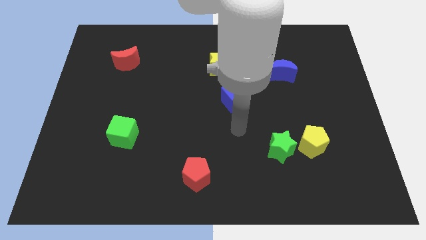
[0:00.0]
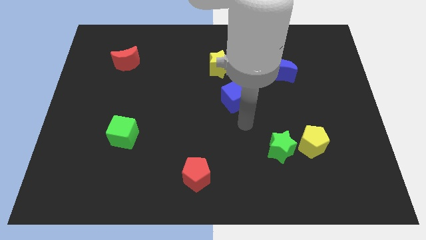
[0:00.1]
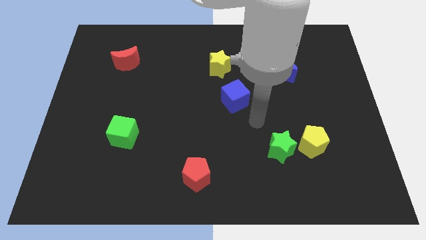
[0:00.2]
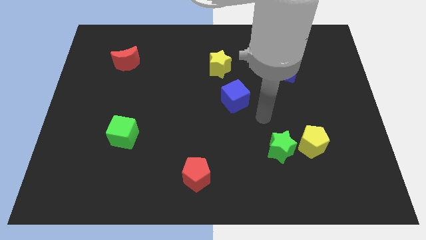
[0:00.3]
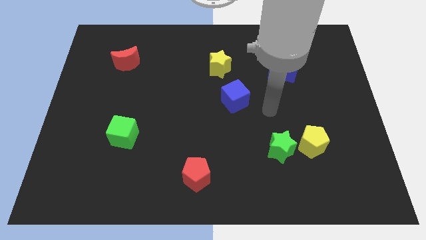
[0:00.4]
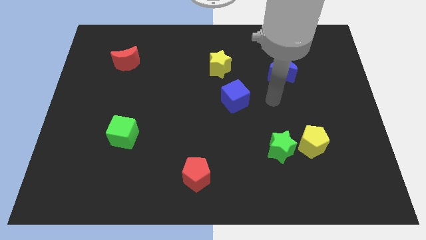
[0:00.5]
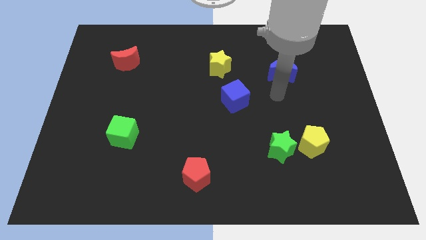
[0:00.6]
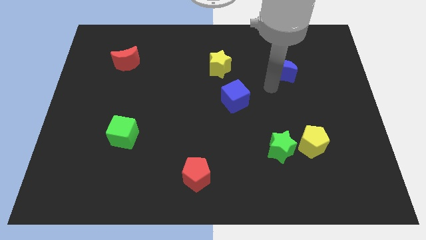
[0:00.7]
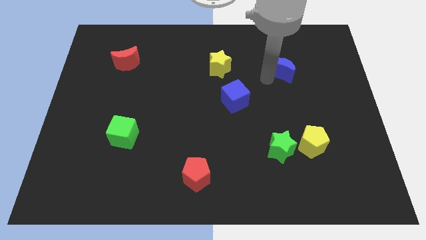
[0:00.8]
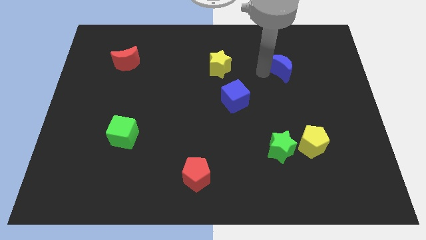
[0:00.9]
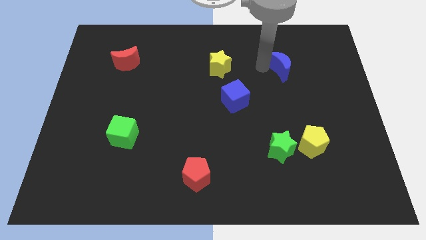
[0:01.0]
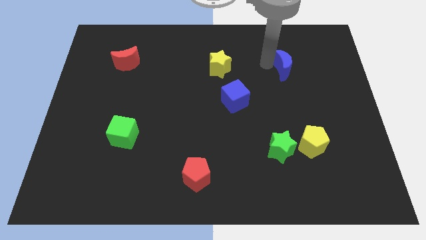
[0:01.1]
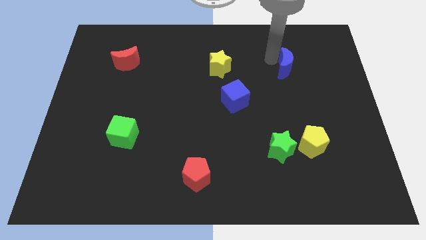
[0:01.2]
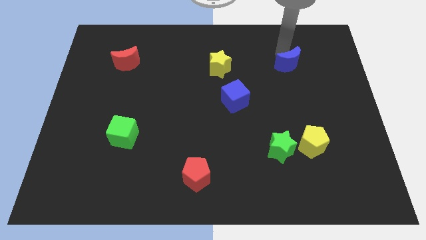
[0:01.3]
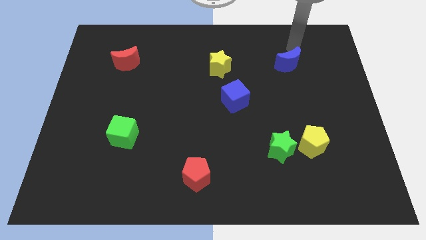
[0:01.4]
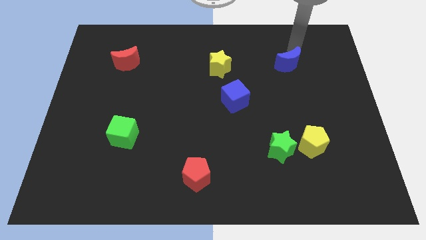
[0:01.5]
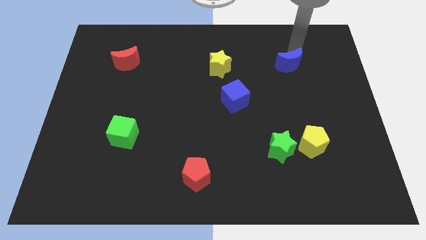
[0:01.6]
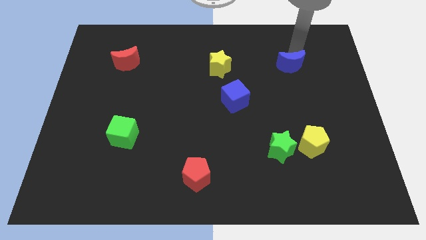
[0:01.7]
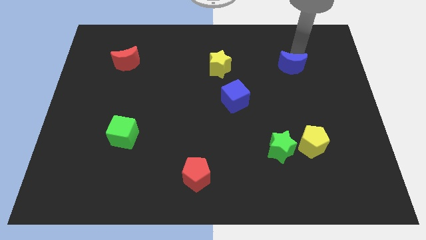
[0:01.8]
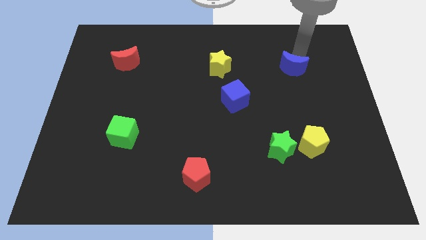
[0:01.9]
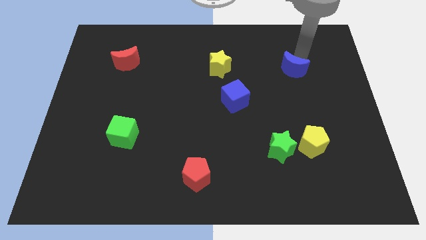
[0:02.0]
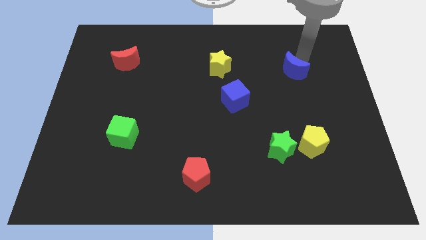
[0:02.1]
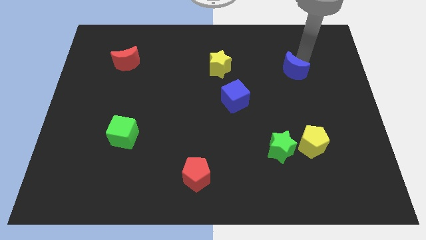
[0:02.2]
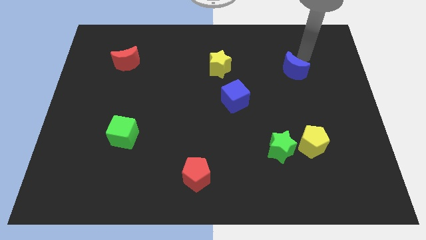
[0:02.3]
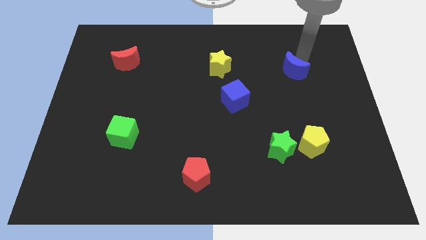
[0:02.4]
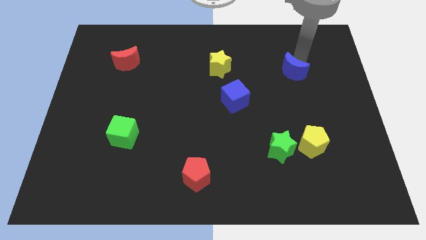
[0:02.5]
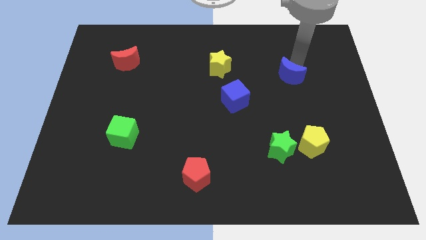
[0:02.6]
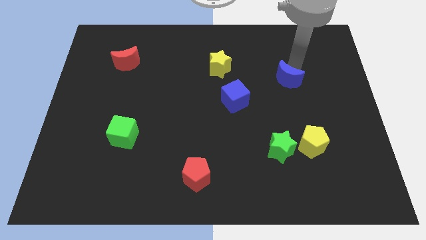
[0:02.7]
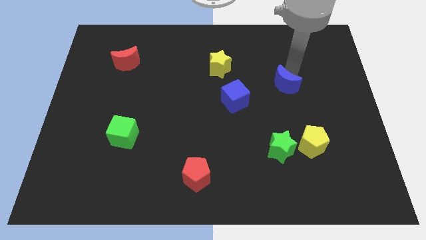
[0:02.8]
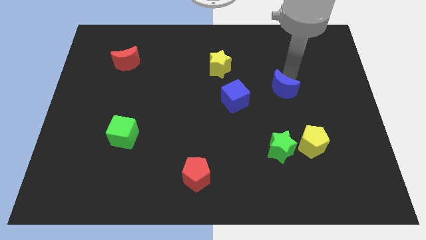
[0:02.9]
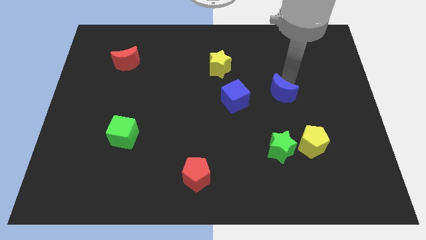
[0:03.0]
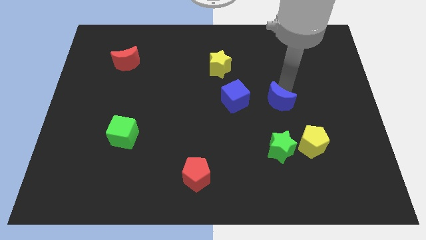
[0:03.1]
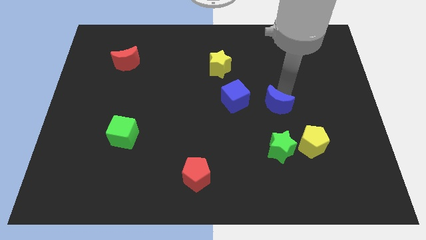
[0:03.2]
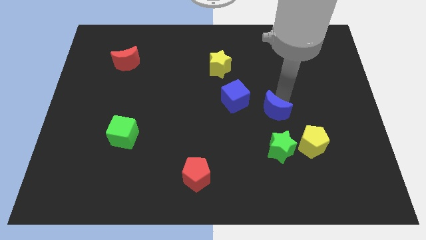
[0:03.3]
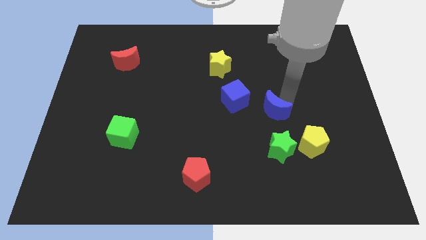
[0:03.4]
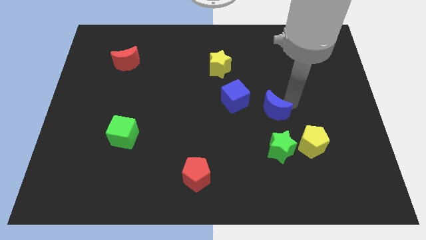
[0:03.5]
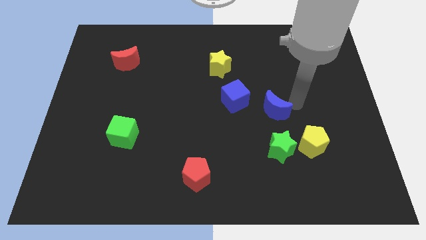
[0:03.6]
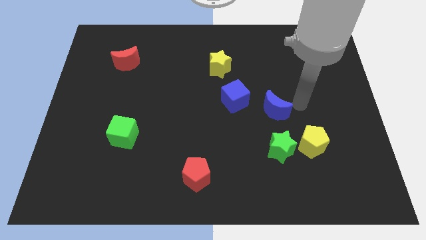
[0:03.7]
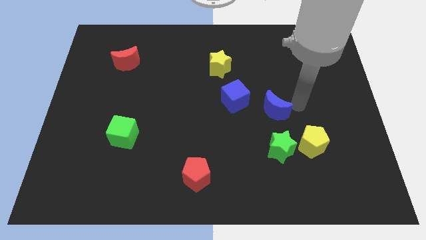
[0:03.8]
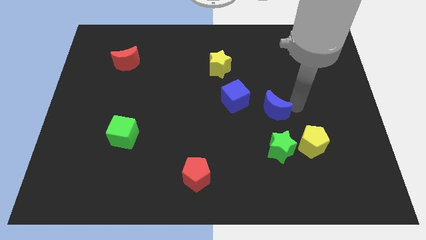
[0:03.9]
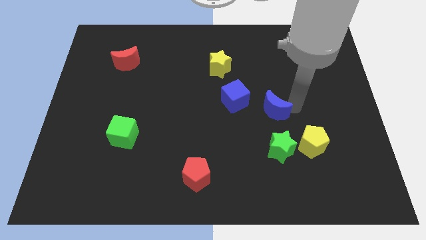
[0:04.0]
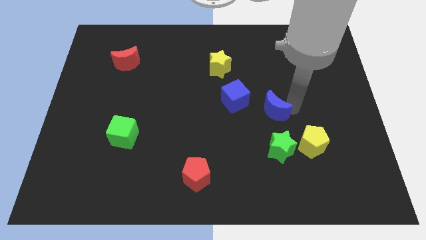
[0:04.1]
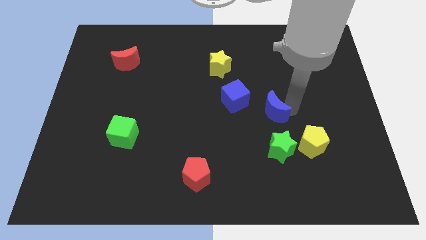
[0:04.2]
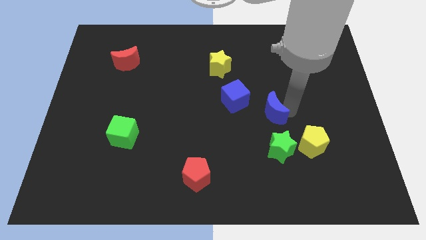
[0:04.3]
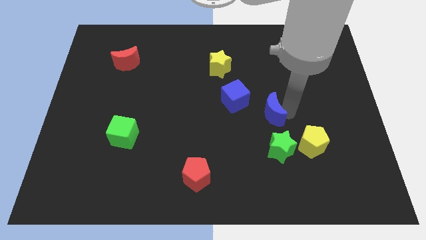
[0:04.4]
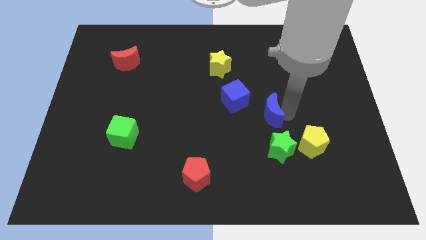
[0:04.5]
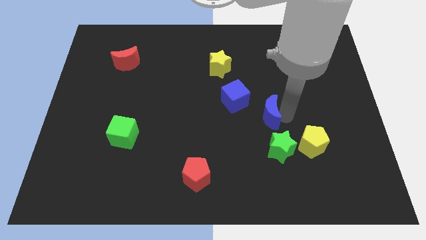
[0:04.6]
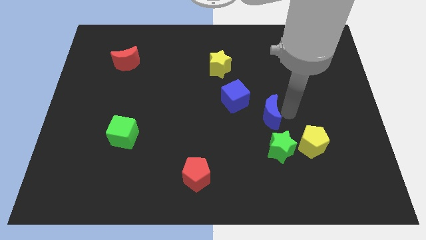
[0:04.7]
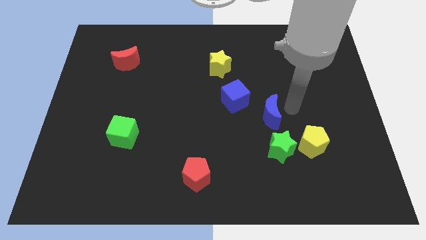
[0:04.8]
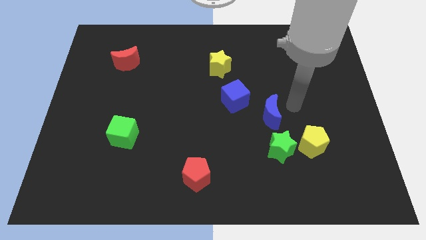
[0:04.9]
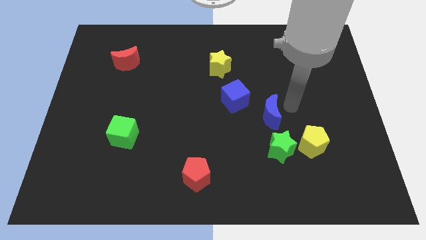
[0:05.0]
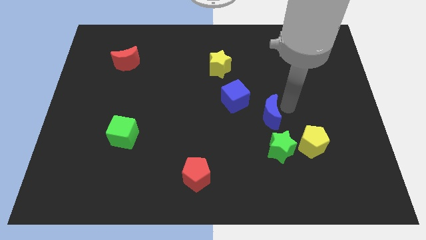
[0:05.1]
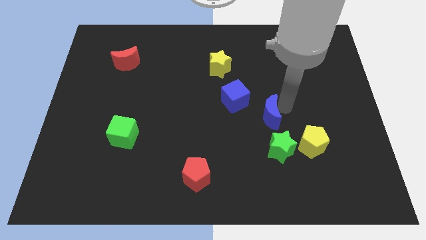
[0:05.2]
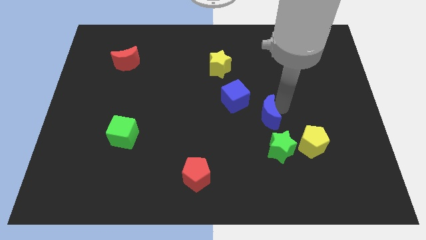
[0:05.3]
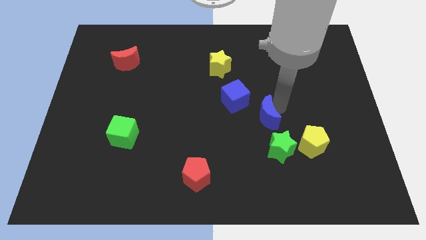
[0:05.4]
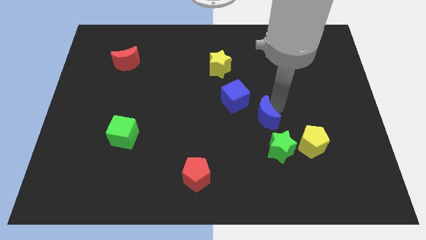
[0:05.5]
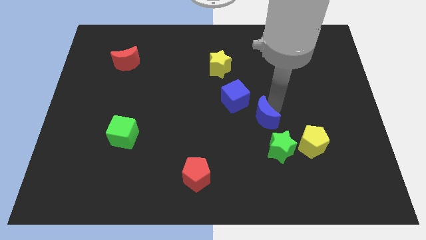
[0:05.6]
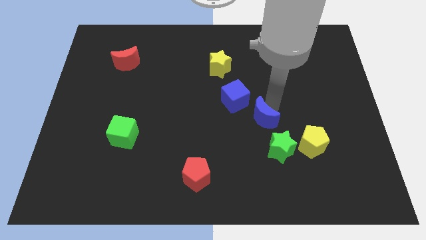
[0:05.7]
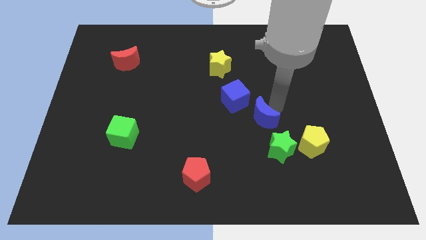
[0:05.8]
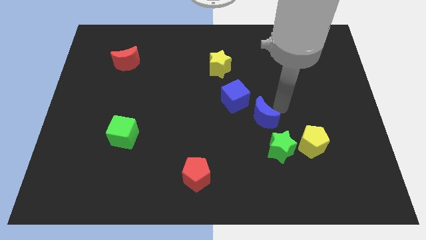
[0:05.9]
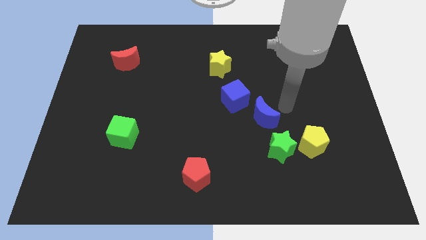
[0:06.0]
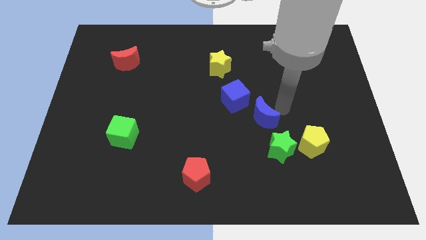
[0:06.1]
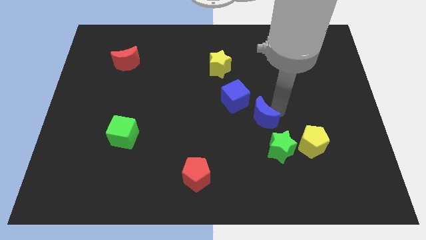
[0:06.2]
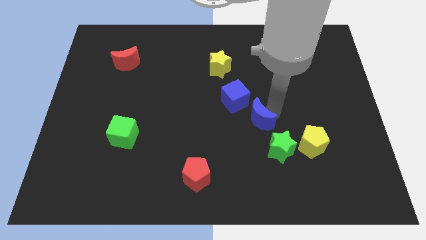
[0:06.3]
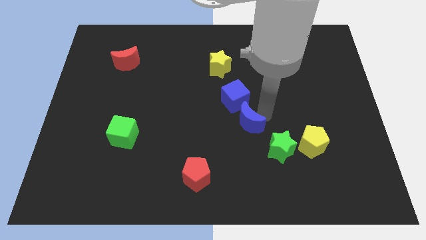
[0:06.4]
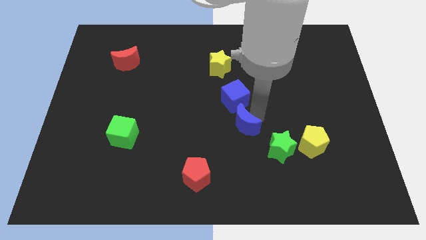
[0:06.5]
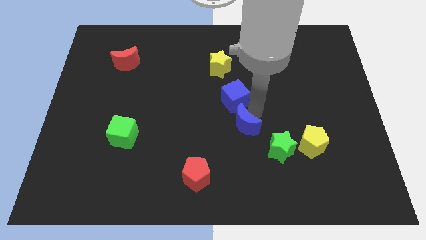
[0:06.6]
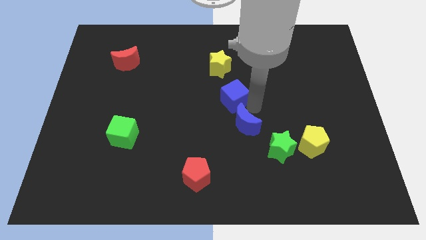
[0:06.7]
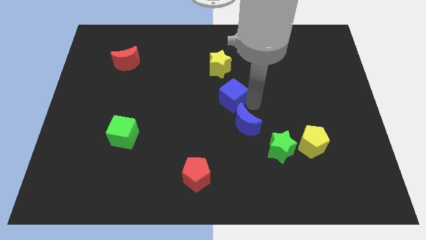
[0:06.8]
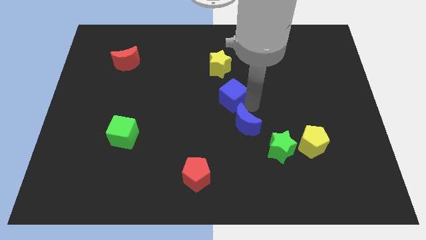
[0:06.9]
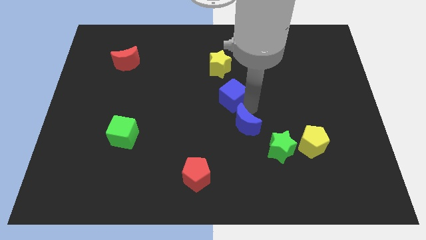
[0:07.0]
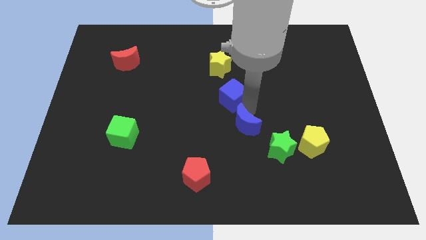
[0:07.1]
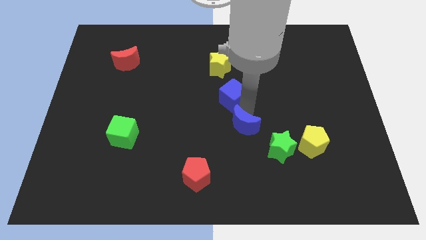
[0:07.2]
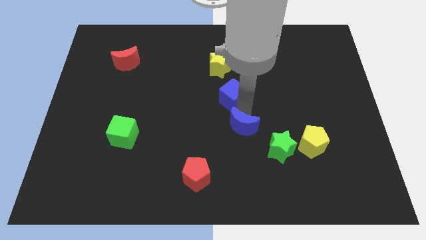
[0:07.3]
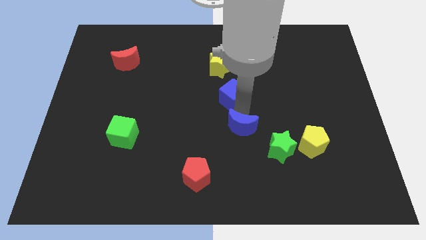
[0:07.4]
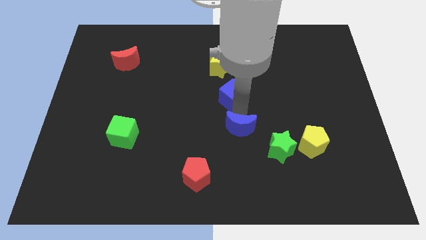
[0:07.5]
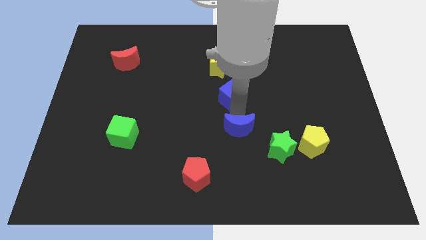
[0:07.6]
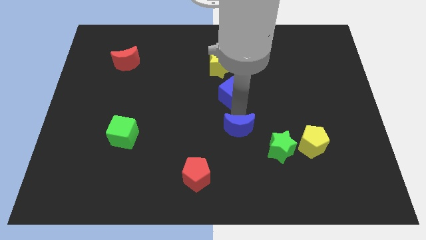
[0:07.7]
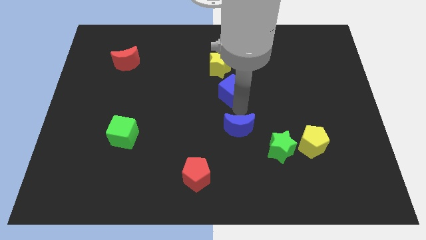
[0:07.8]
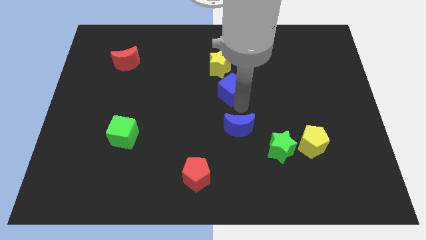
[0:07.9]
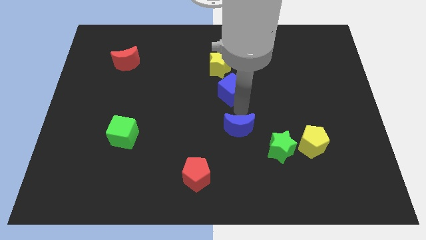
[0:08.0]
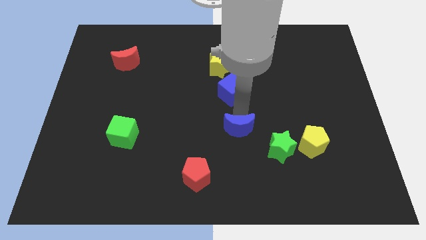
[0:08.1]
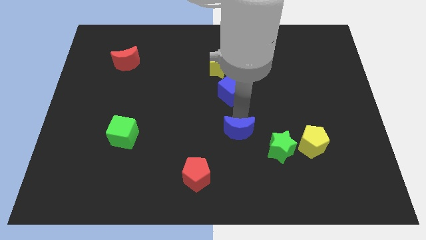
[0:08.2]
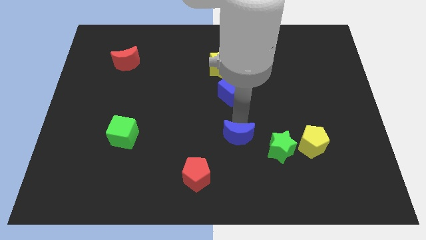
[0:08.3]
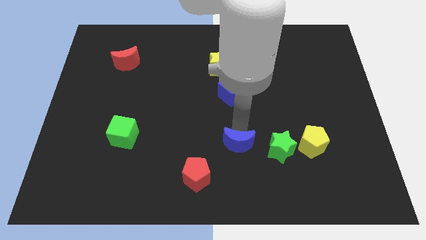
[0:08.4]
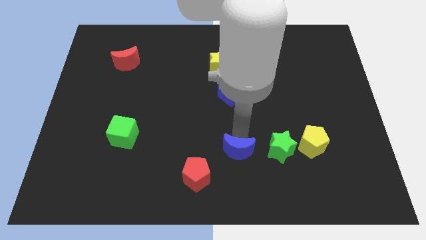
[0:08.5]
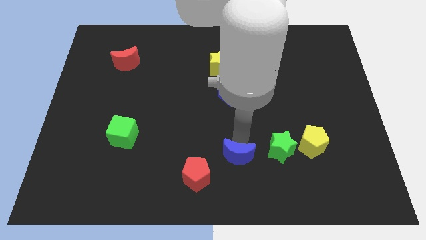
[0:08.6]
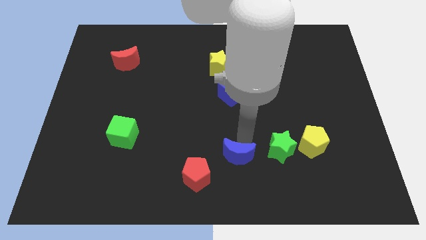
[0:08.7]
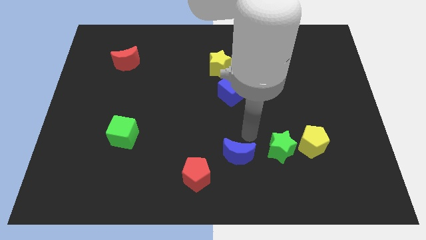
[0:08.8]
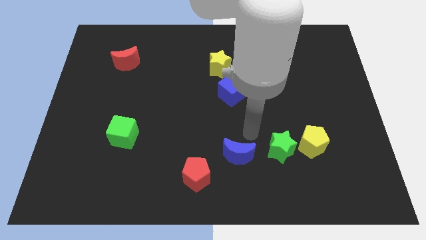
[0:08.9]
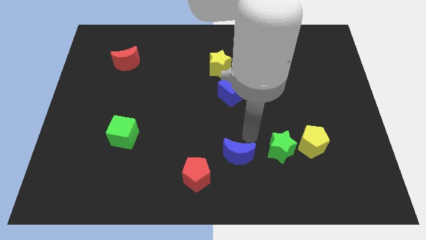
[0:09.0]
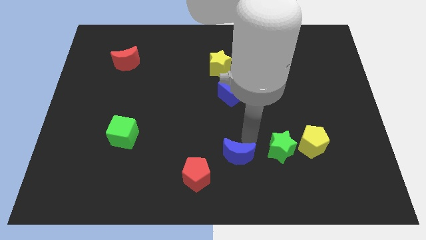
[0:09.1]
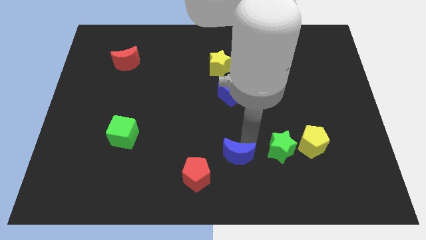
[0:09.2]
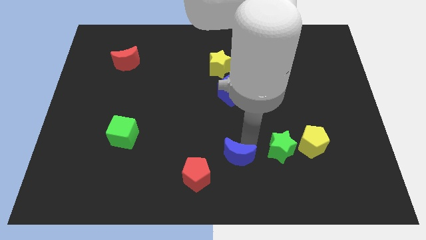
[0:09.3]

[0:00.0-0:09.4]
move the blue moon to the bottom
